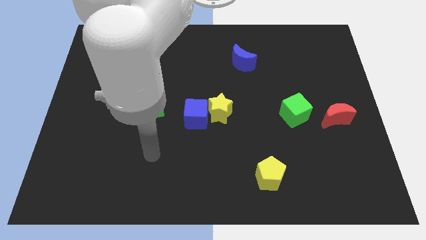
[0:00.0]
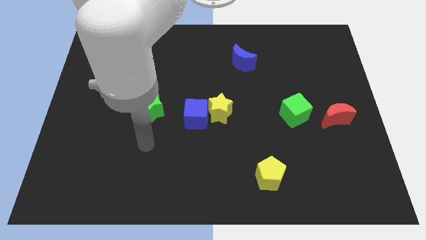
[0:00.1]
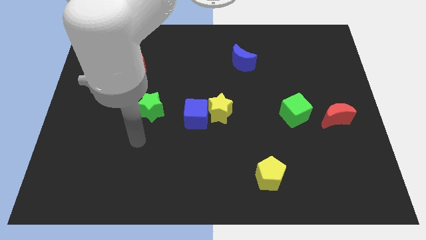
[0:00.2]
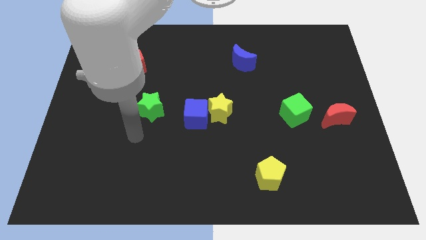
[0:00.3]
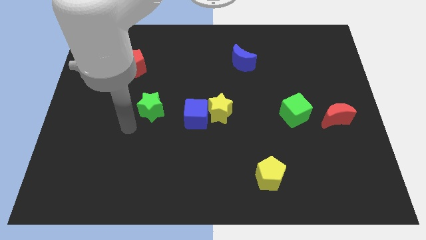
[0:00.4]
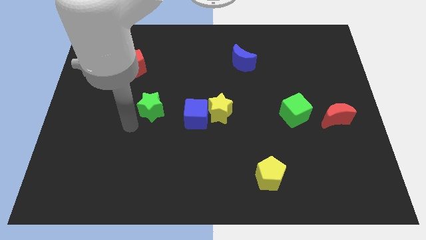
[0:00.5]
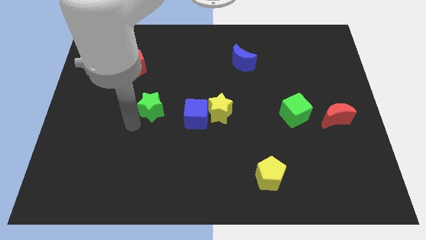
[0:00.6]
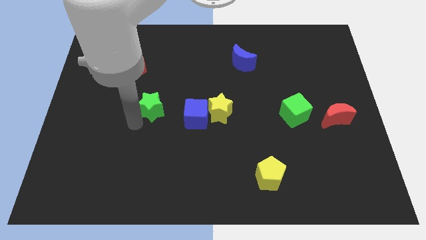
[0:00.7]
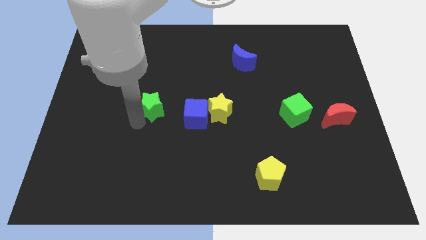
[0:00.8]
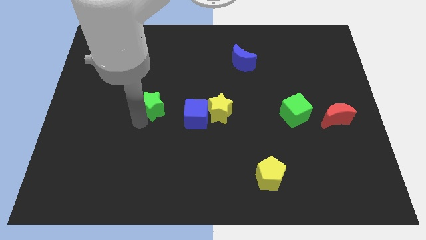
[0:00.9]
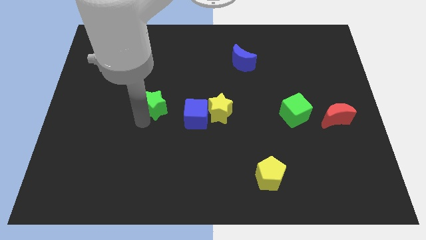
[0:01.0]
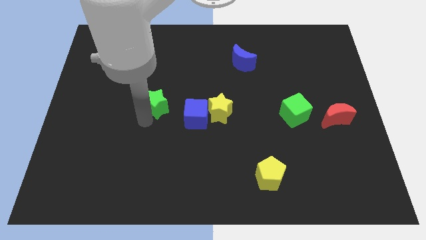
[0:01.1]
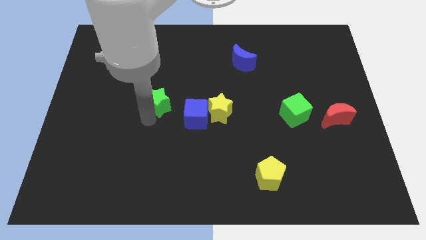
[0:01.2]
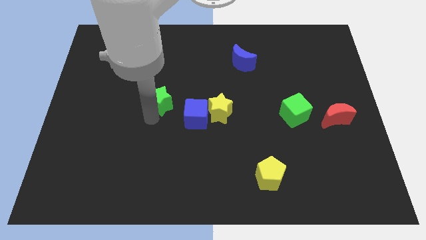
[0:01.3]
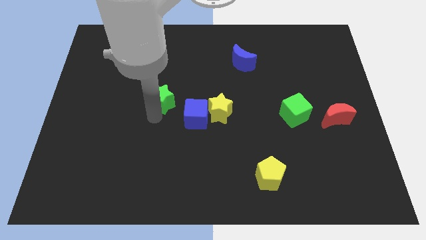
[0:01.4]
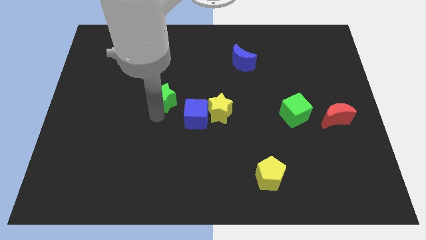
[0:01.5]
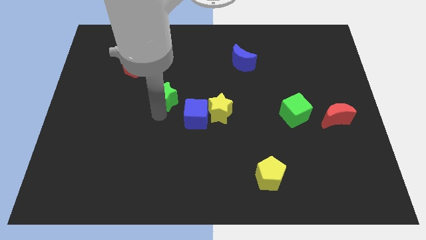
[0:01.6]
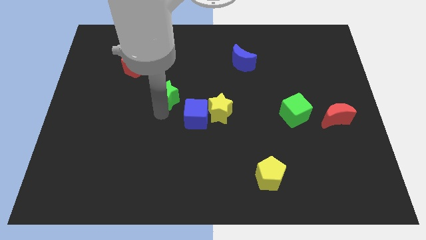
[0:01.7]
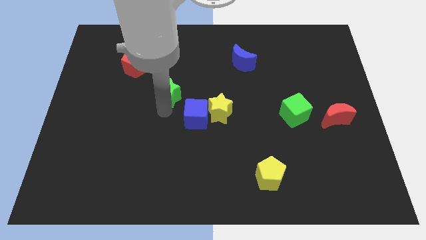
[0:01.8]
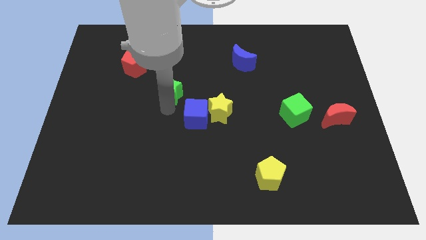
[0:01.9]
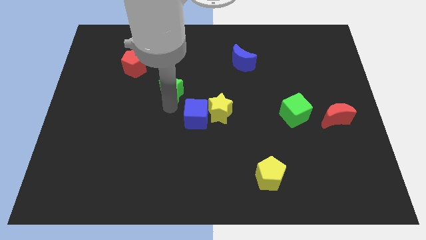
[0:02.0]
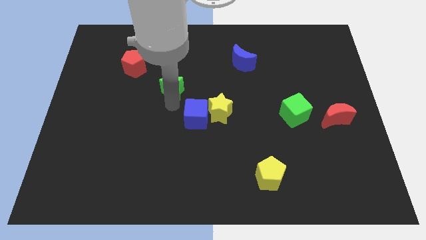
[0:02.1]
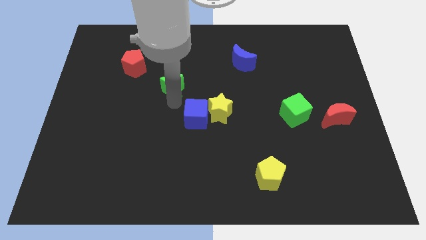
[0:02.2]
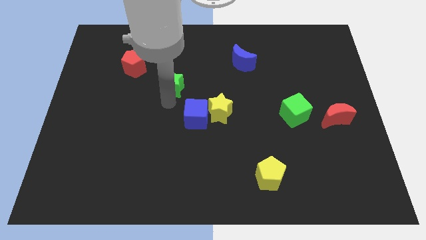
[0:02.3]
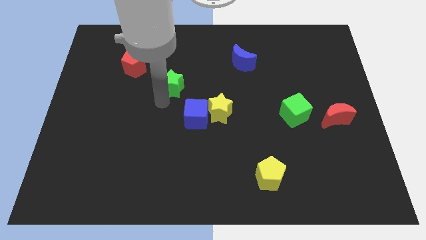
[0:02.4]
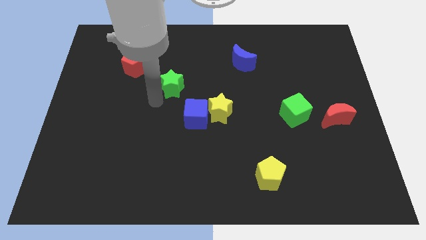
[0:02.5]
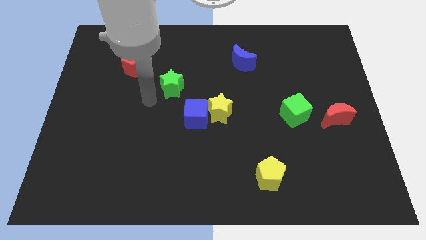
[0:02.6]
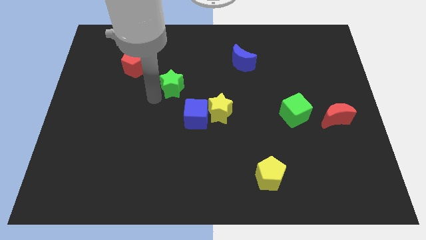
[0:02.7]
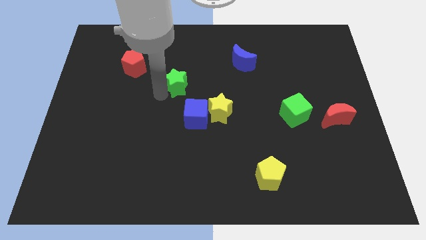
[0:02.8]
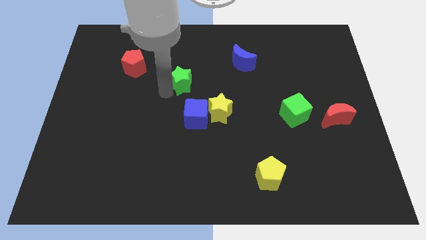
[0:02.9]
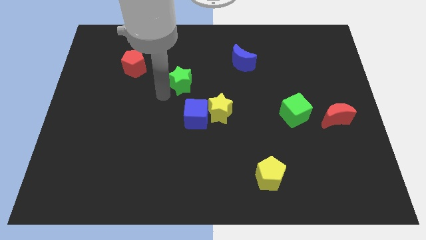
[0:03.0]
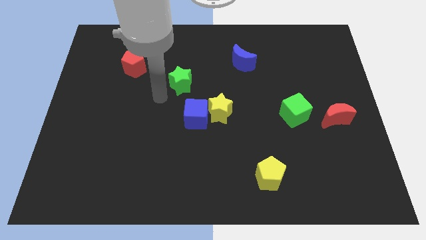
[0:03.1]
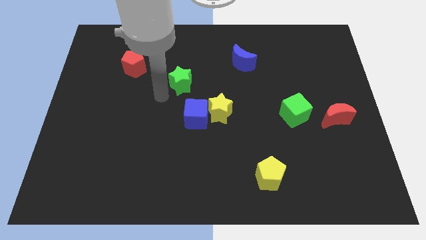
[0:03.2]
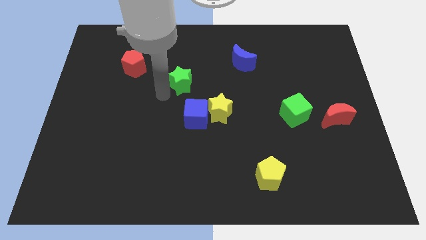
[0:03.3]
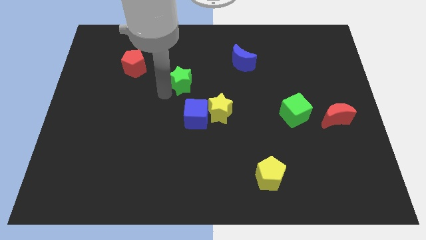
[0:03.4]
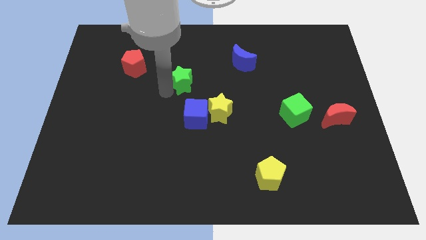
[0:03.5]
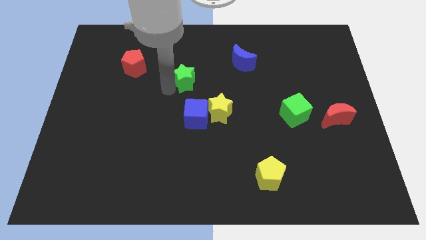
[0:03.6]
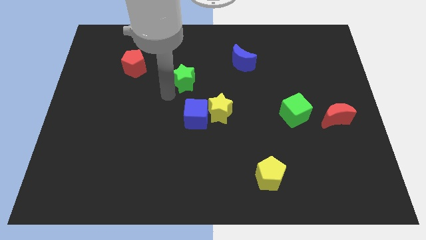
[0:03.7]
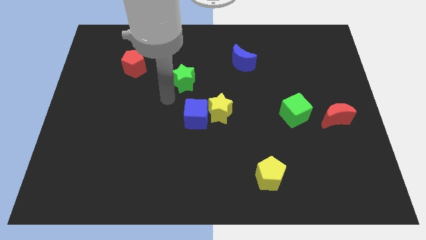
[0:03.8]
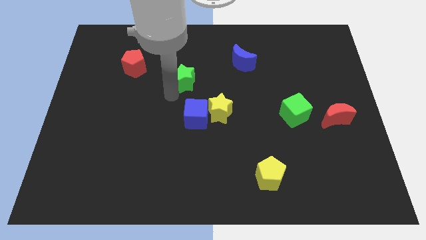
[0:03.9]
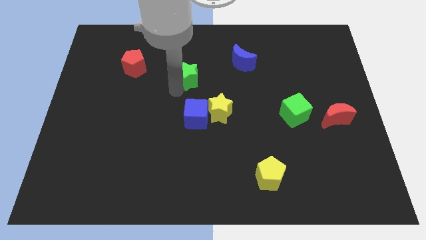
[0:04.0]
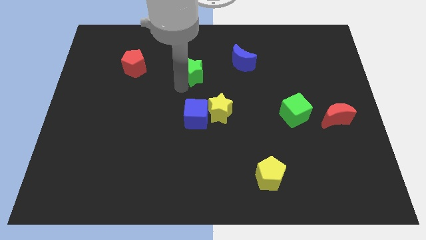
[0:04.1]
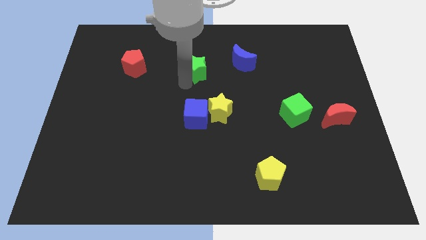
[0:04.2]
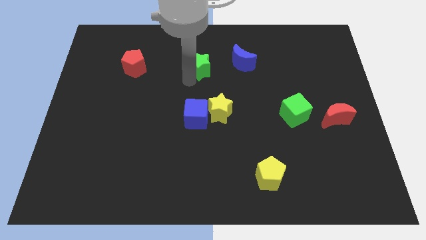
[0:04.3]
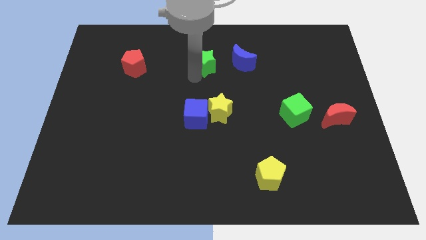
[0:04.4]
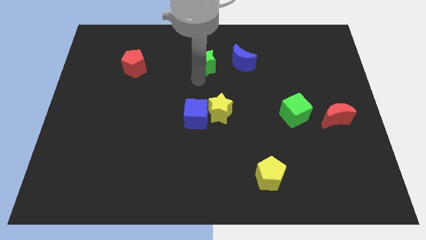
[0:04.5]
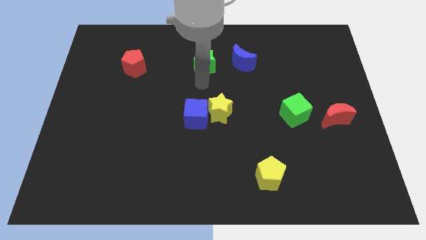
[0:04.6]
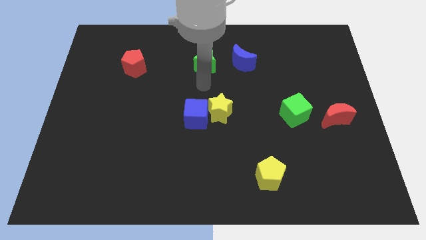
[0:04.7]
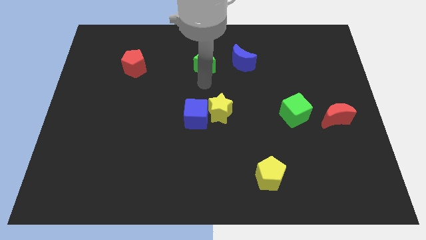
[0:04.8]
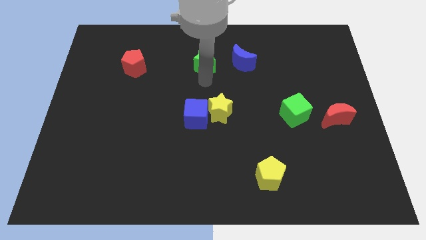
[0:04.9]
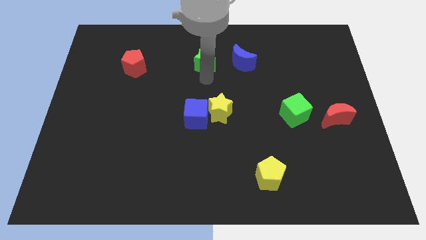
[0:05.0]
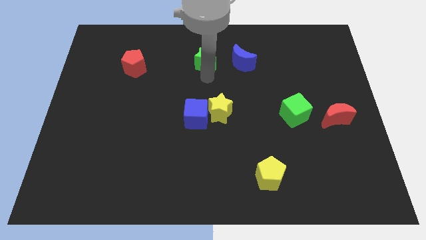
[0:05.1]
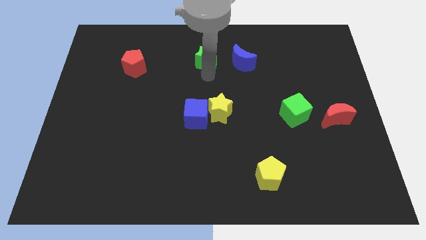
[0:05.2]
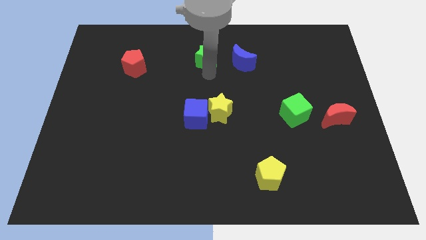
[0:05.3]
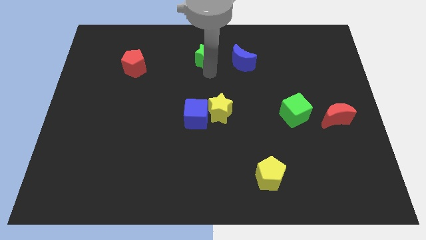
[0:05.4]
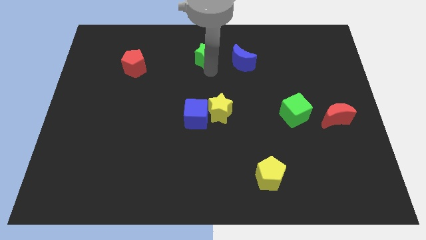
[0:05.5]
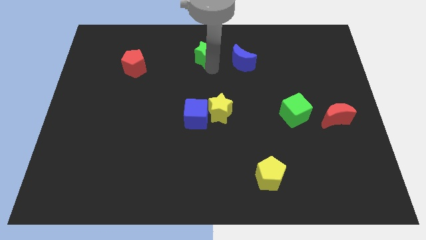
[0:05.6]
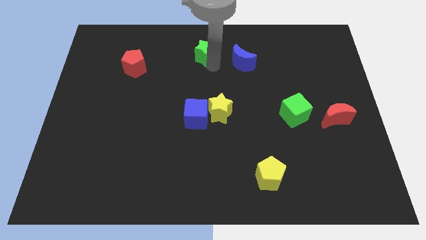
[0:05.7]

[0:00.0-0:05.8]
push the green star to the top

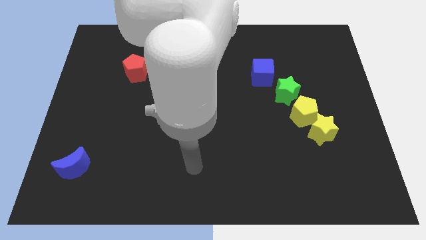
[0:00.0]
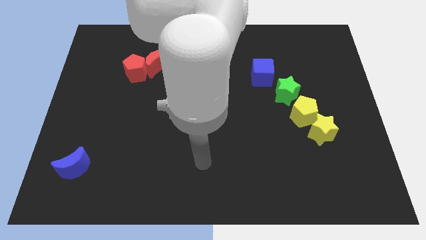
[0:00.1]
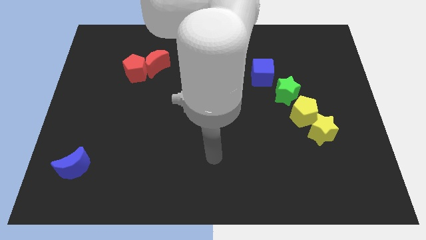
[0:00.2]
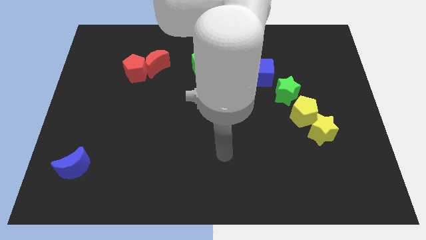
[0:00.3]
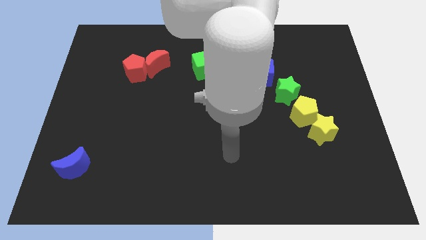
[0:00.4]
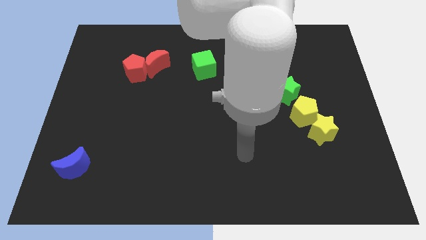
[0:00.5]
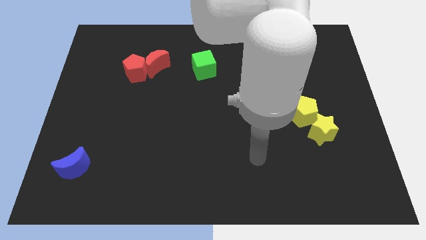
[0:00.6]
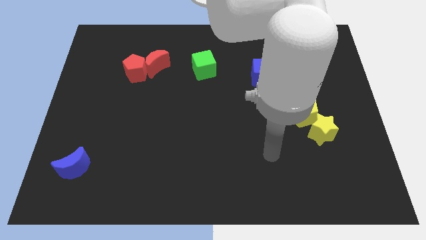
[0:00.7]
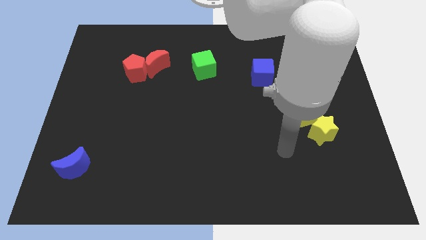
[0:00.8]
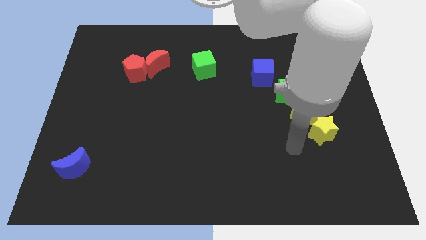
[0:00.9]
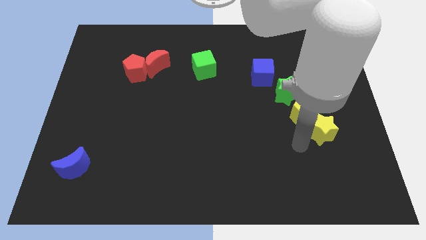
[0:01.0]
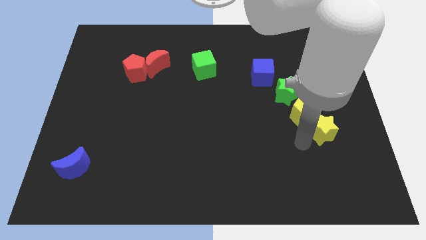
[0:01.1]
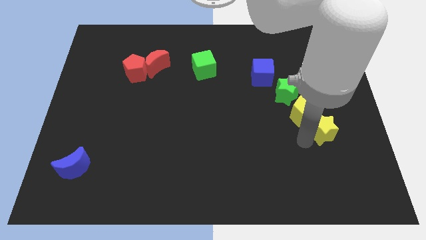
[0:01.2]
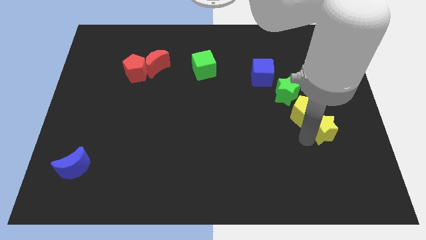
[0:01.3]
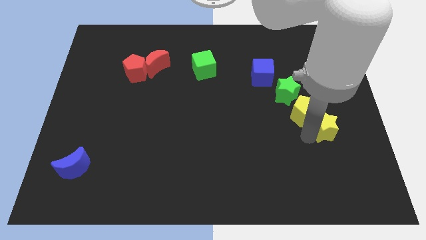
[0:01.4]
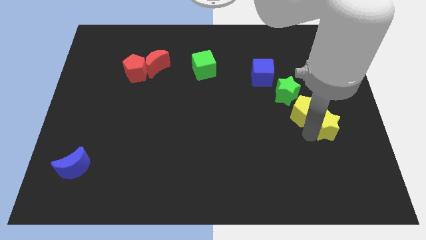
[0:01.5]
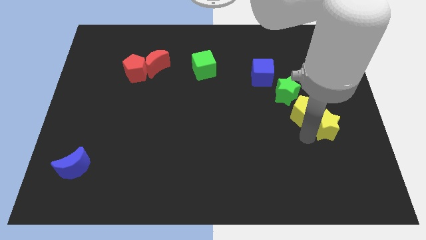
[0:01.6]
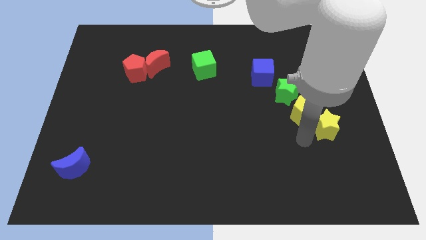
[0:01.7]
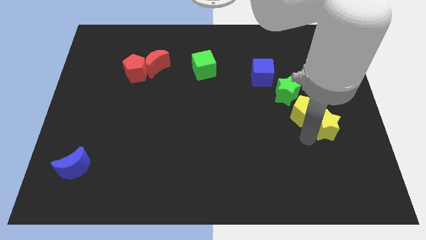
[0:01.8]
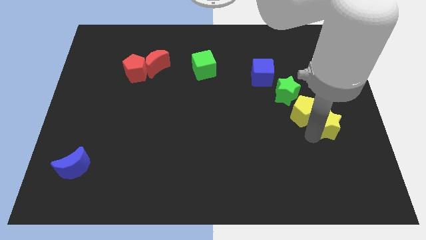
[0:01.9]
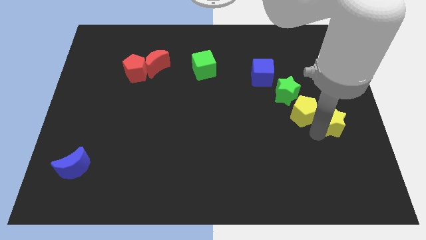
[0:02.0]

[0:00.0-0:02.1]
slide the yellow star to the right side of the board

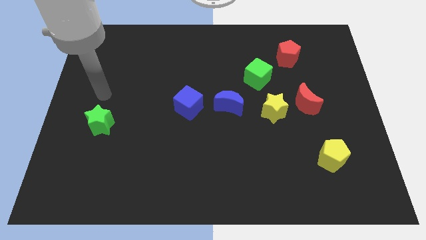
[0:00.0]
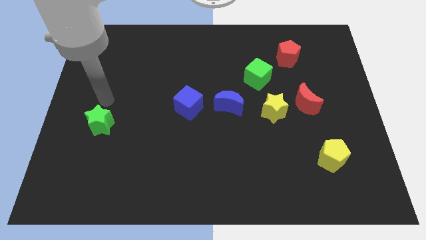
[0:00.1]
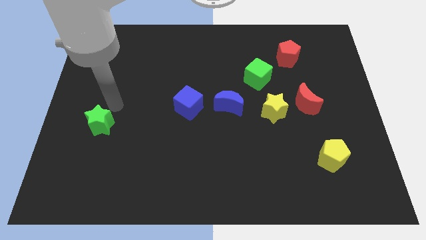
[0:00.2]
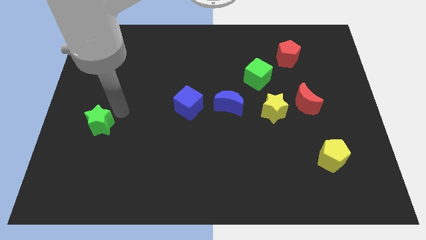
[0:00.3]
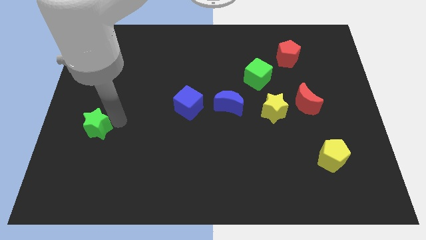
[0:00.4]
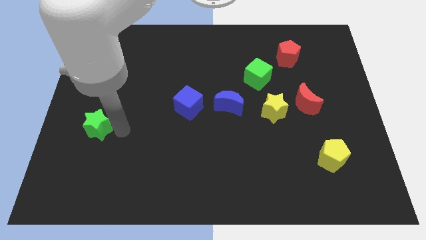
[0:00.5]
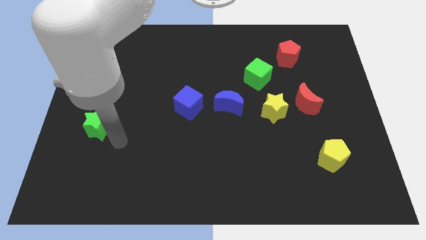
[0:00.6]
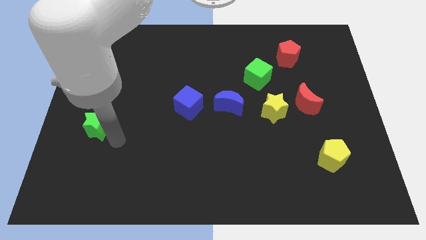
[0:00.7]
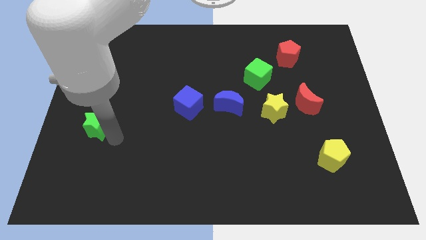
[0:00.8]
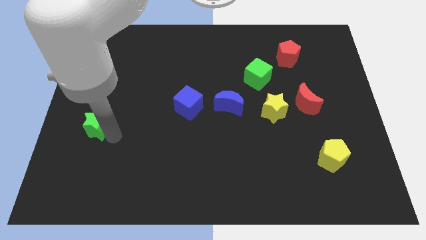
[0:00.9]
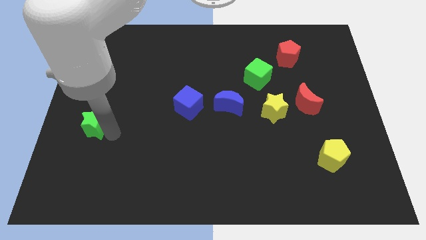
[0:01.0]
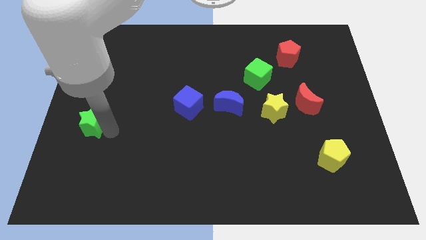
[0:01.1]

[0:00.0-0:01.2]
slide the green star to the left side
